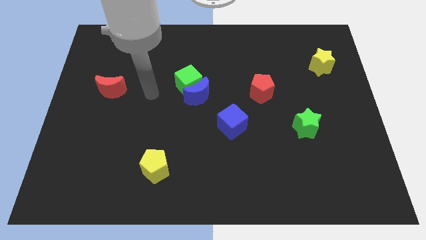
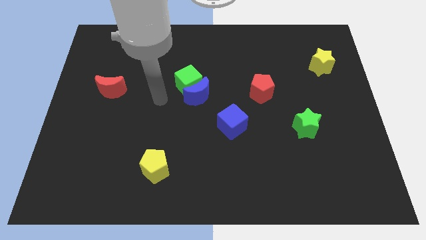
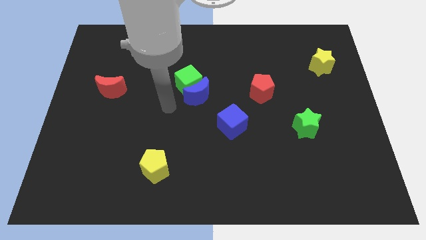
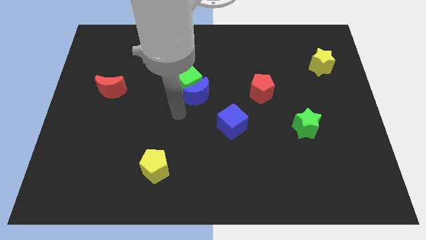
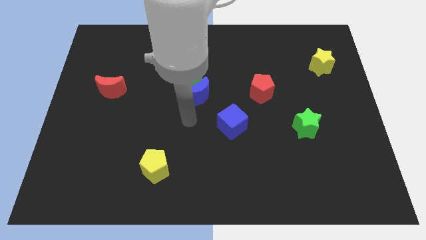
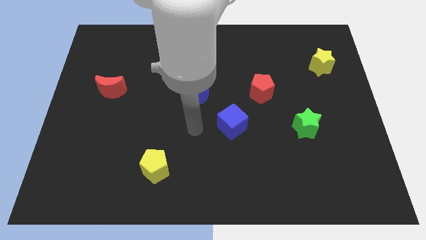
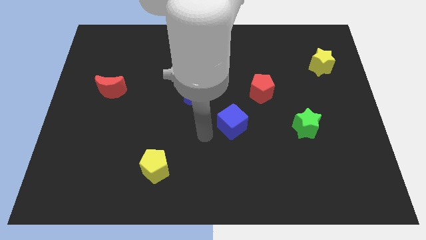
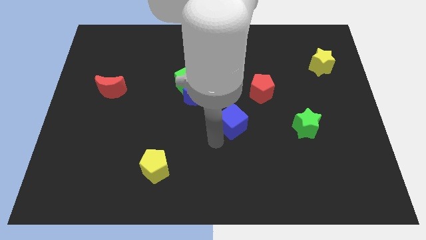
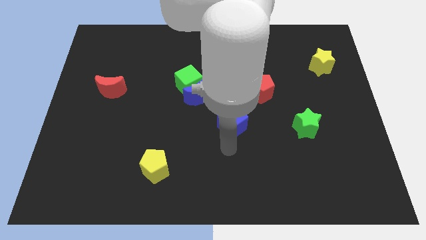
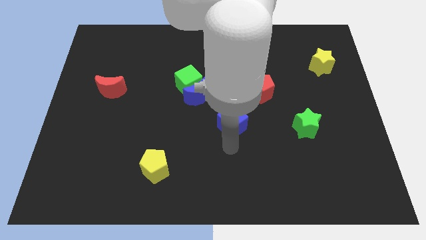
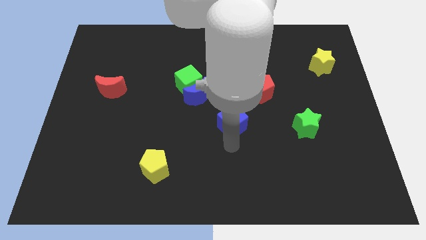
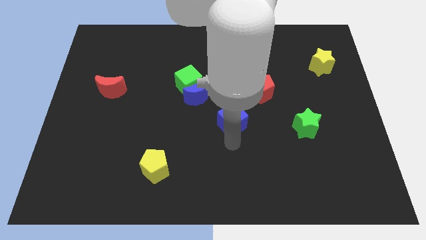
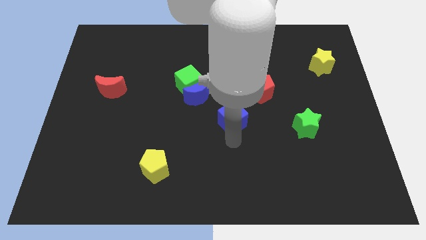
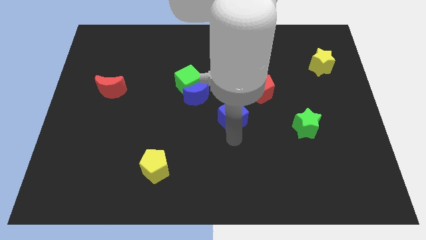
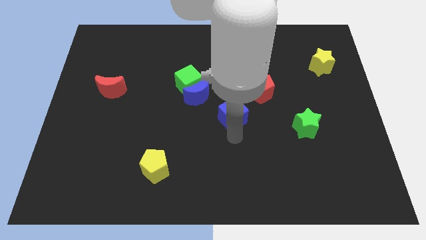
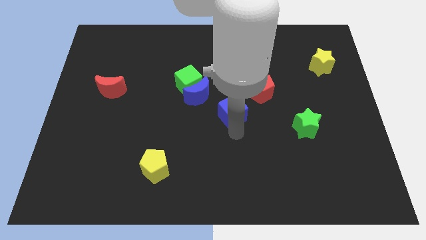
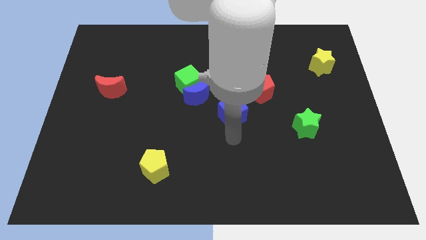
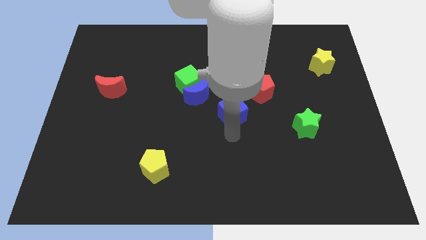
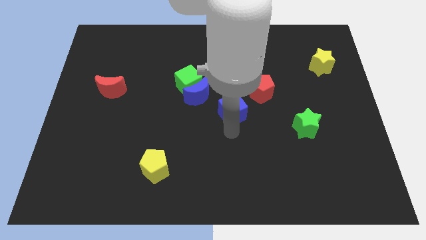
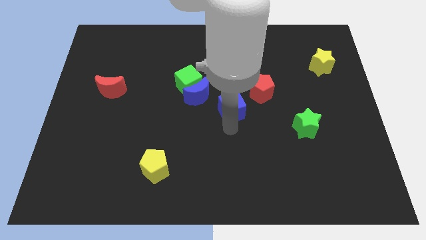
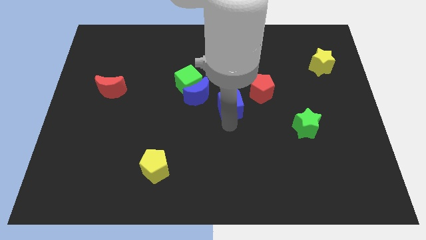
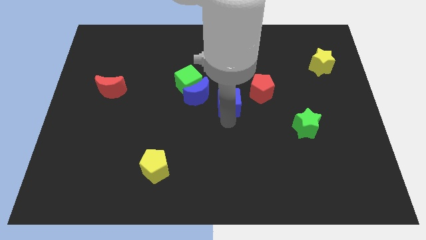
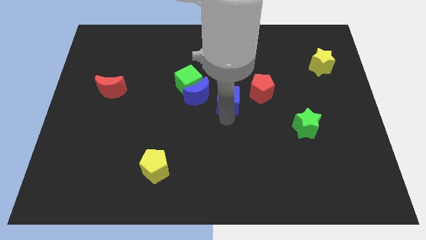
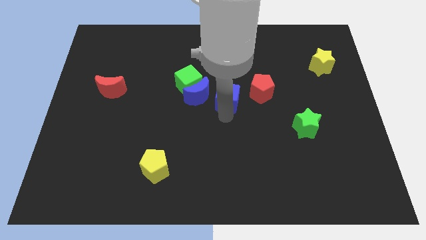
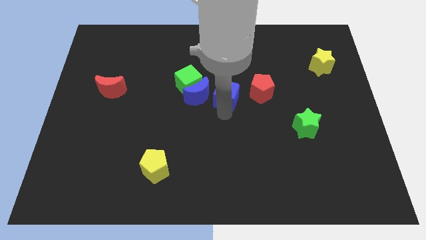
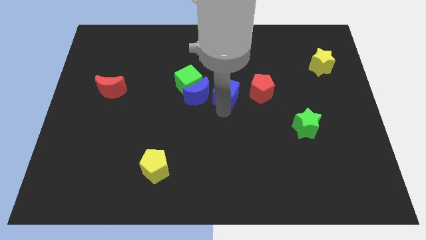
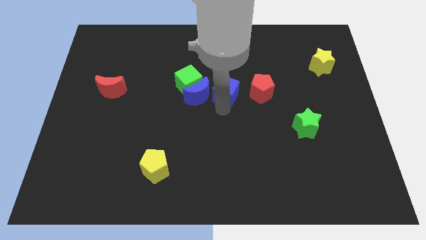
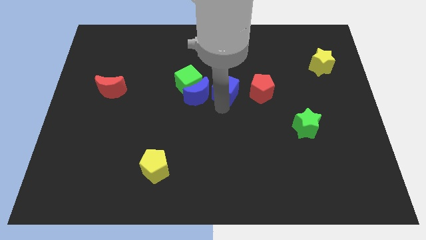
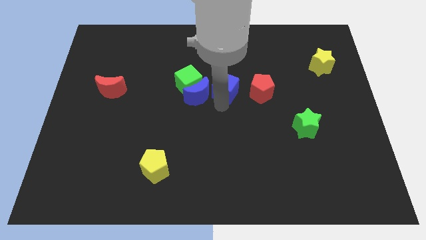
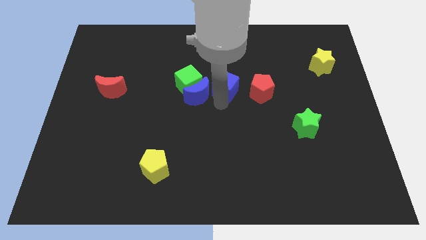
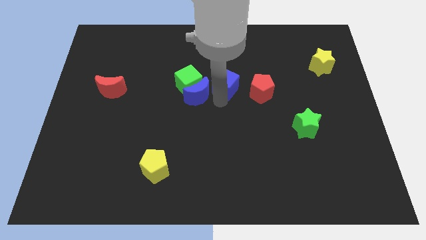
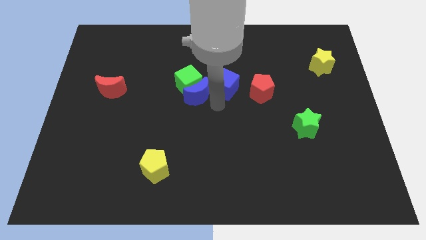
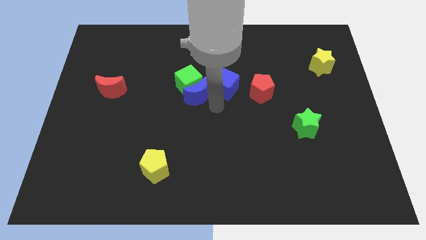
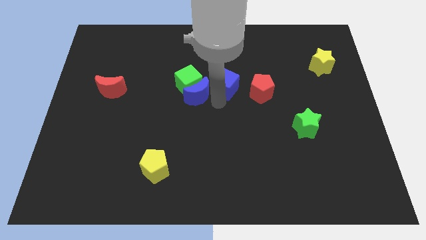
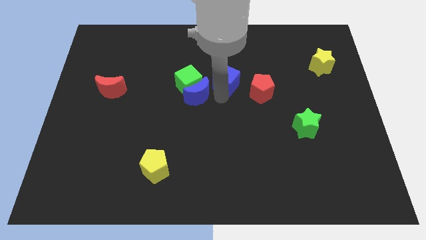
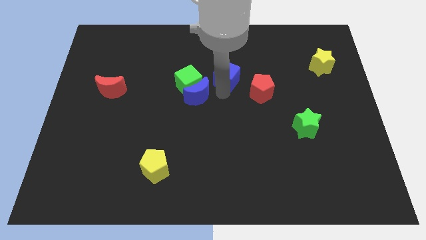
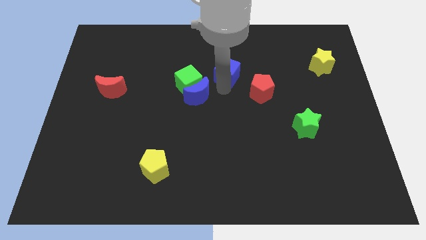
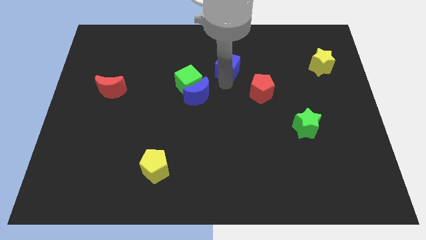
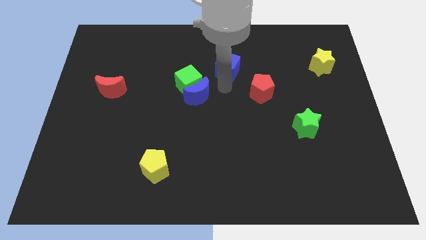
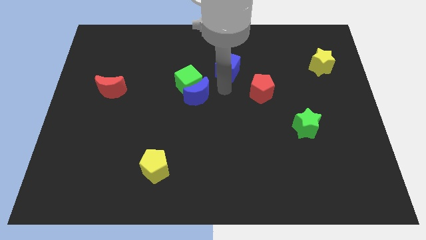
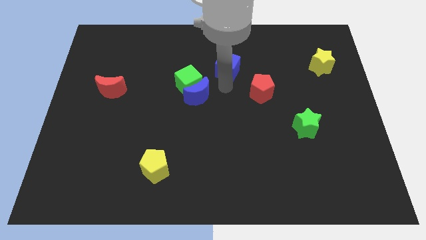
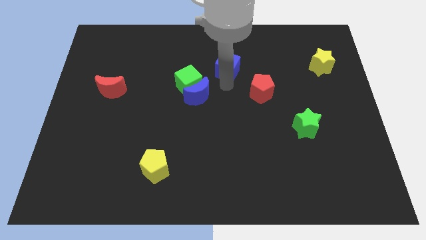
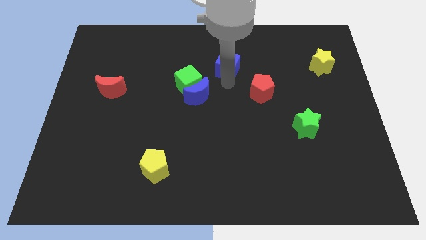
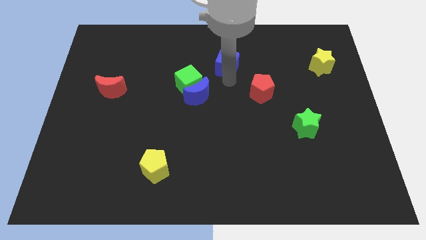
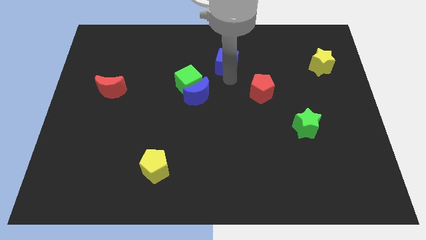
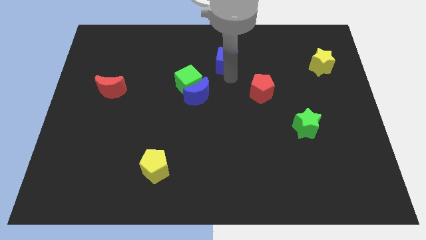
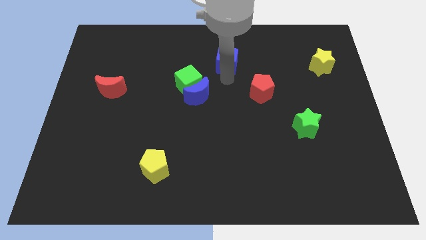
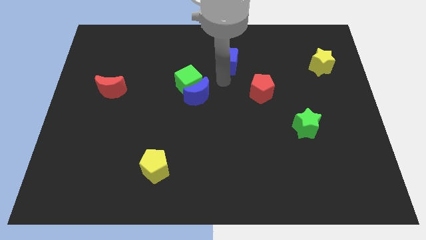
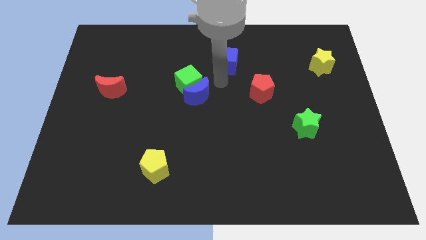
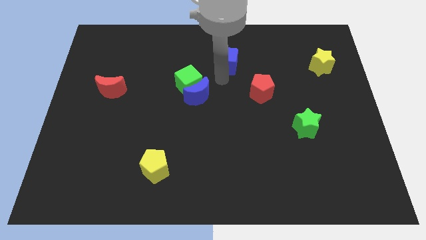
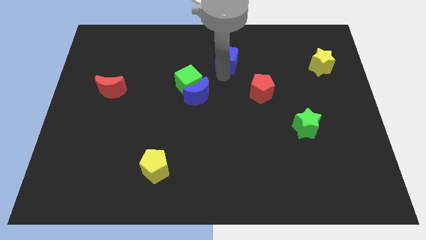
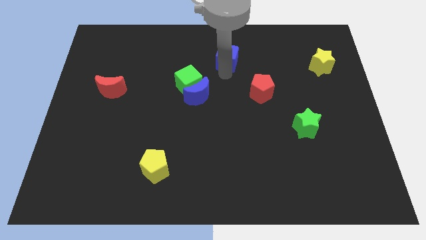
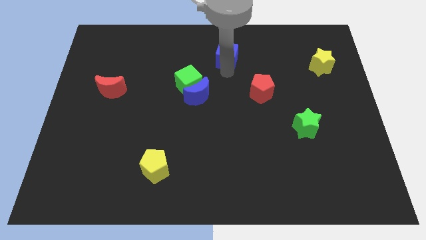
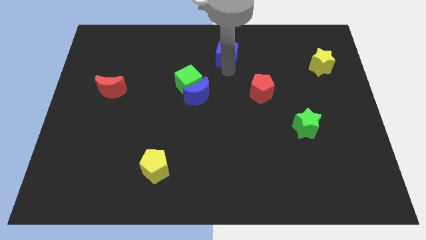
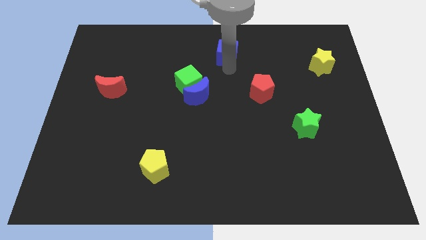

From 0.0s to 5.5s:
slide the blue cube to the towards your base
